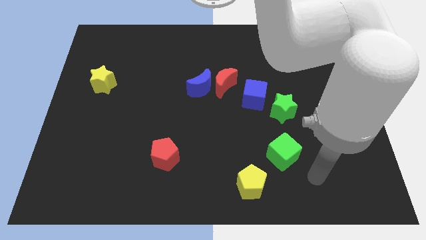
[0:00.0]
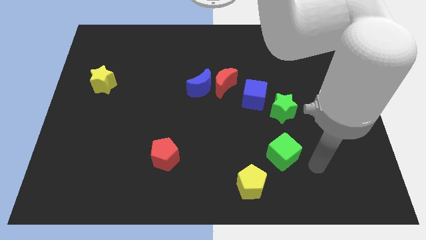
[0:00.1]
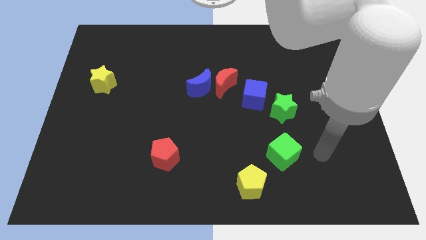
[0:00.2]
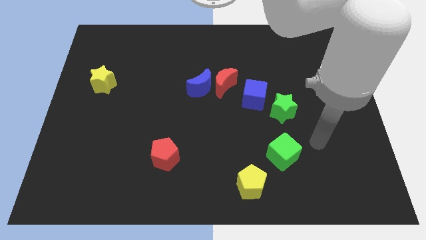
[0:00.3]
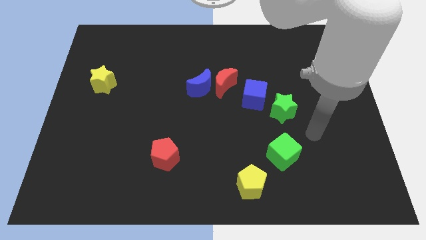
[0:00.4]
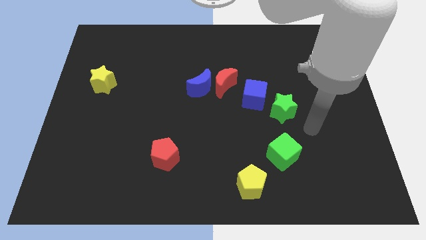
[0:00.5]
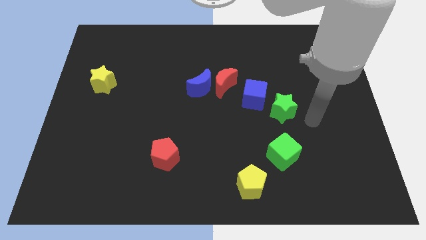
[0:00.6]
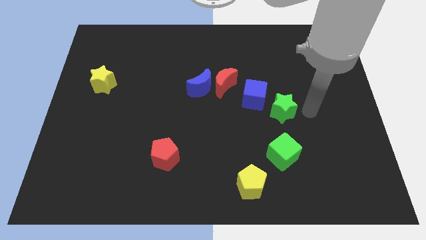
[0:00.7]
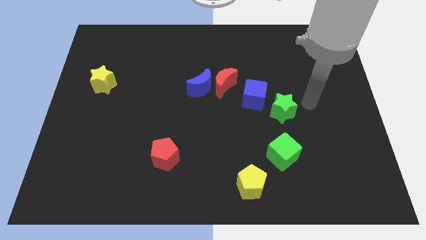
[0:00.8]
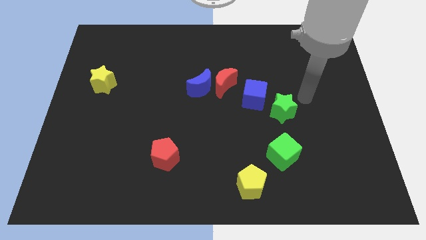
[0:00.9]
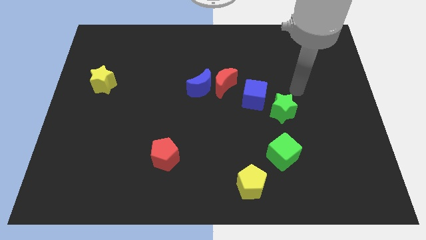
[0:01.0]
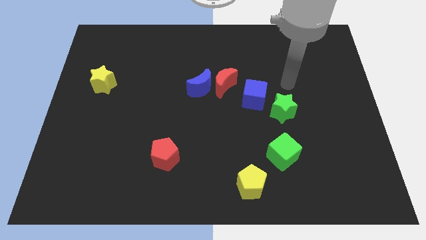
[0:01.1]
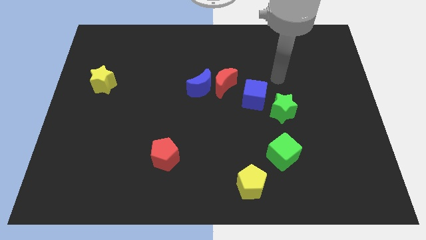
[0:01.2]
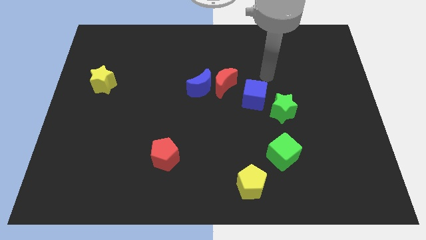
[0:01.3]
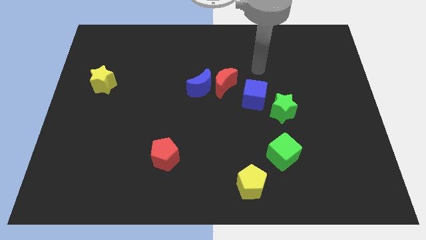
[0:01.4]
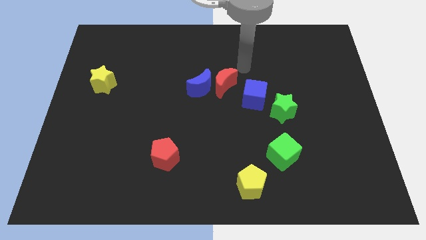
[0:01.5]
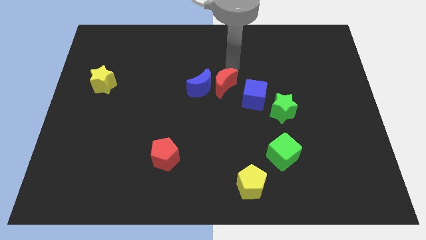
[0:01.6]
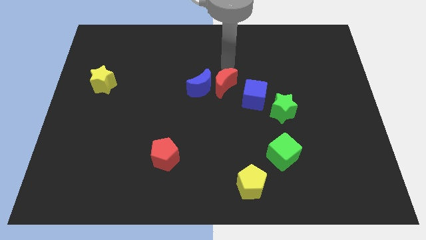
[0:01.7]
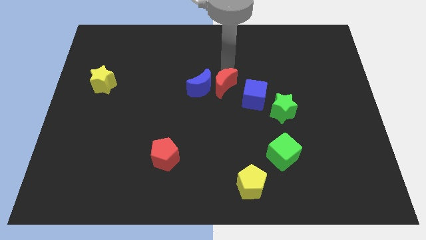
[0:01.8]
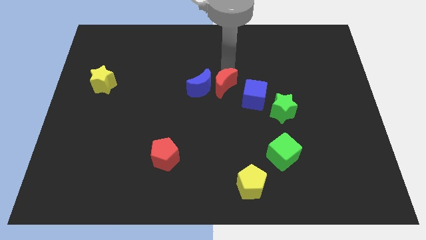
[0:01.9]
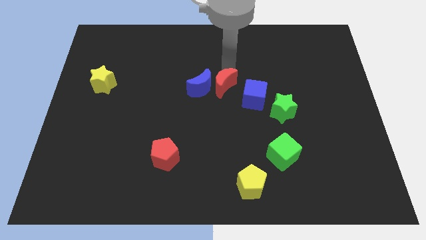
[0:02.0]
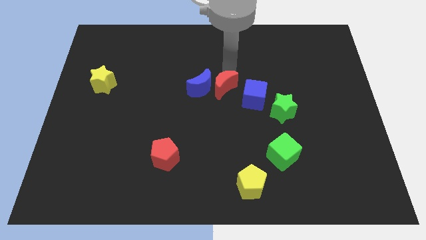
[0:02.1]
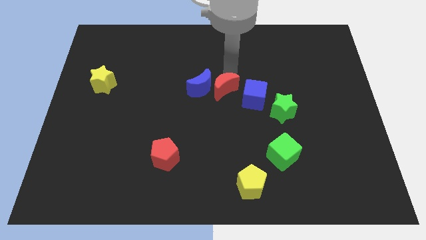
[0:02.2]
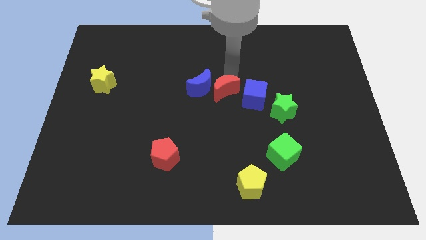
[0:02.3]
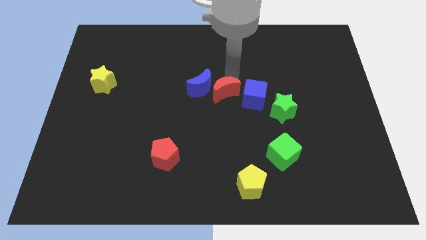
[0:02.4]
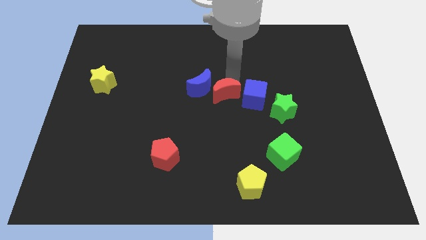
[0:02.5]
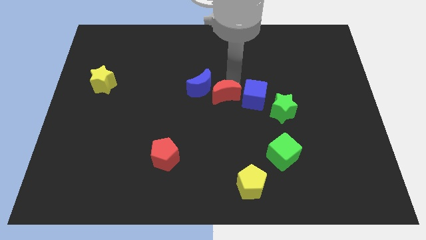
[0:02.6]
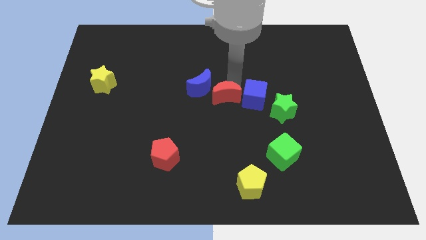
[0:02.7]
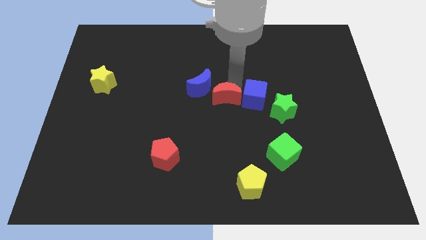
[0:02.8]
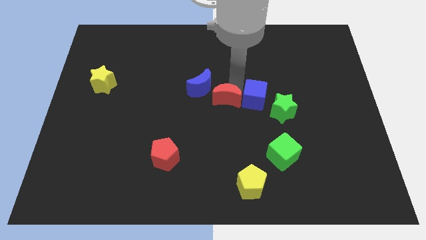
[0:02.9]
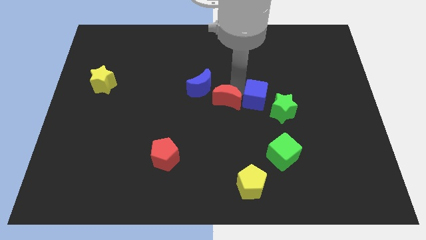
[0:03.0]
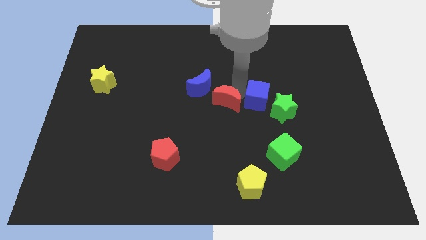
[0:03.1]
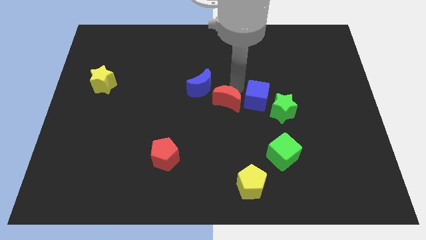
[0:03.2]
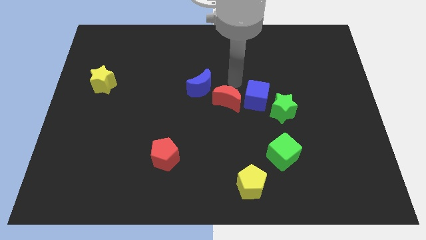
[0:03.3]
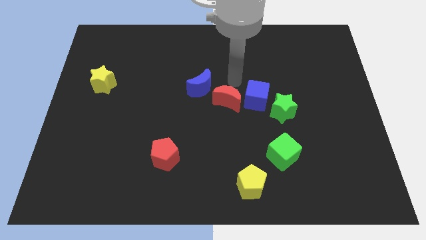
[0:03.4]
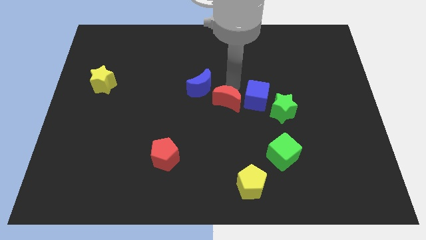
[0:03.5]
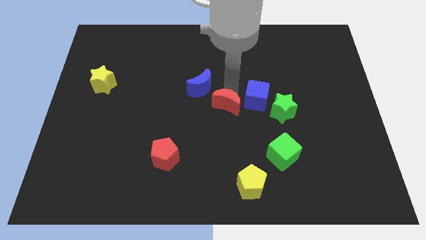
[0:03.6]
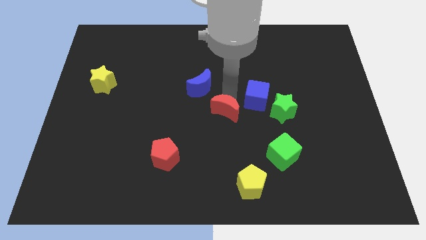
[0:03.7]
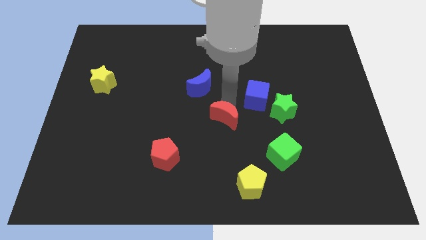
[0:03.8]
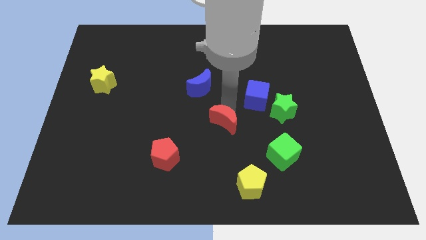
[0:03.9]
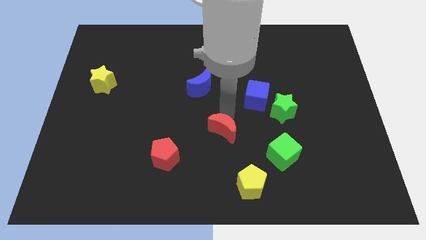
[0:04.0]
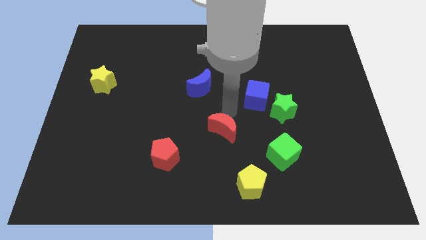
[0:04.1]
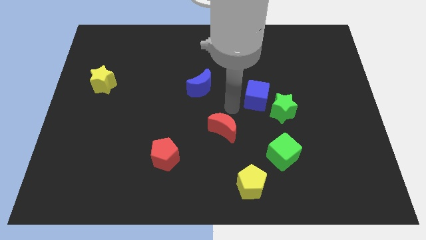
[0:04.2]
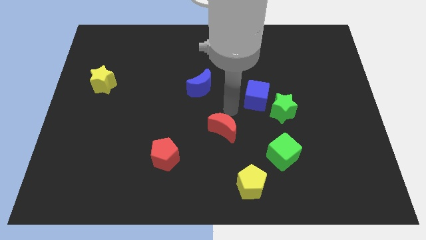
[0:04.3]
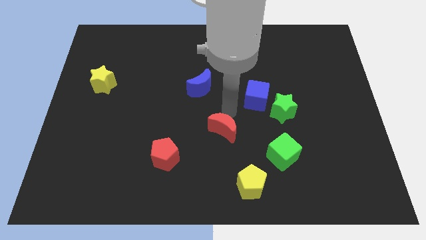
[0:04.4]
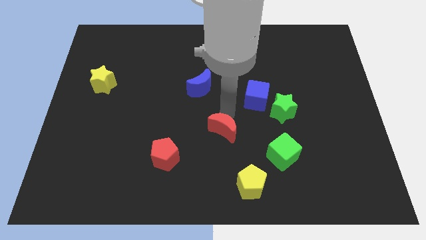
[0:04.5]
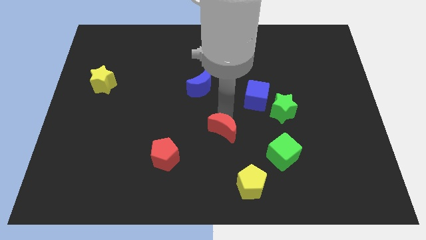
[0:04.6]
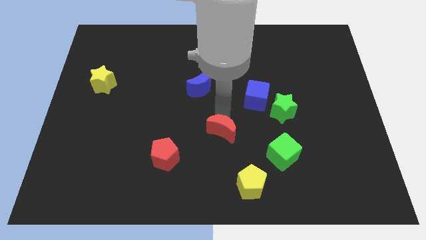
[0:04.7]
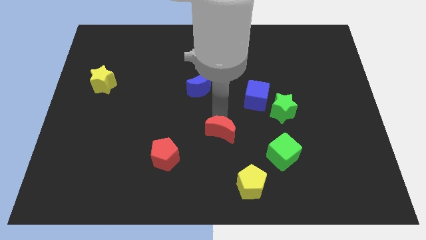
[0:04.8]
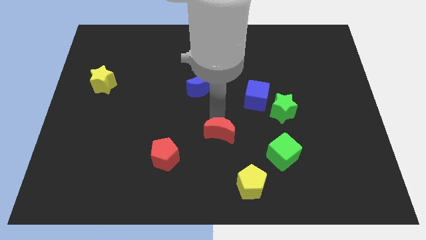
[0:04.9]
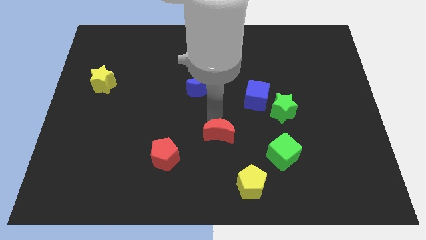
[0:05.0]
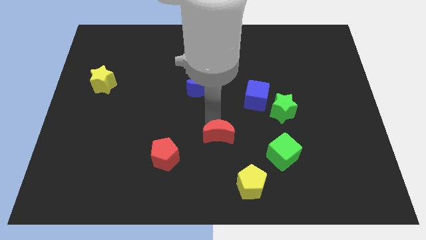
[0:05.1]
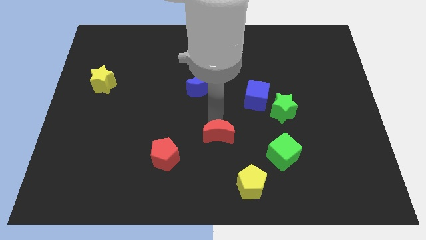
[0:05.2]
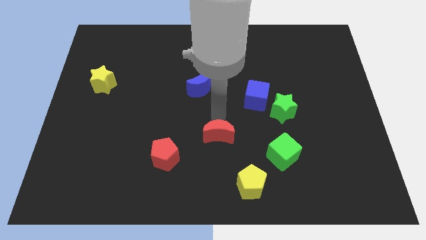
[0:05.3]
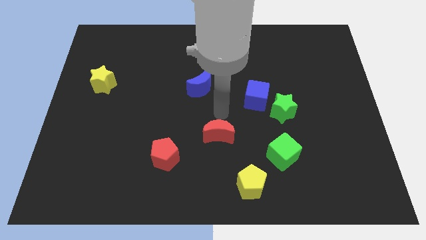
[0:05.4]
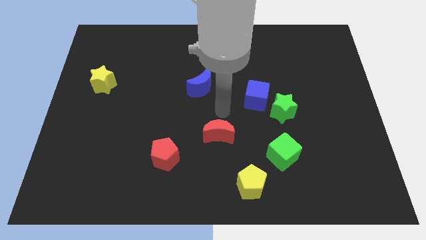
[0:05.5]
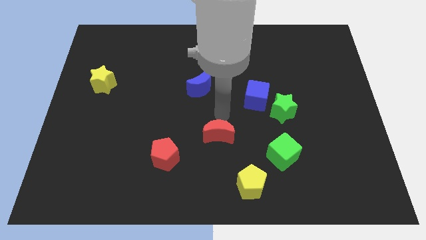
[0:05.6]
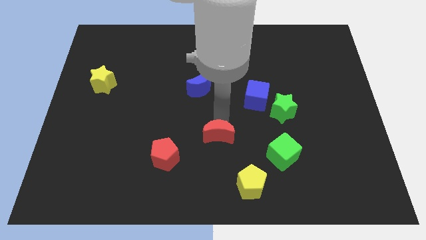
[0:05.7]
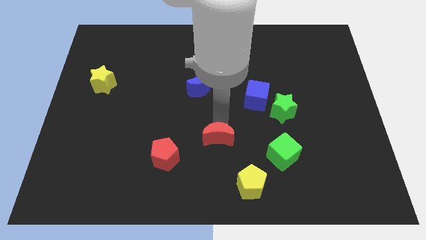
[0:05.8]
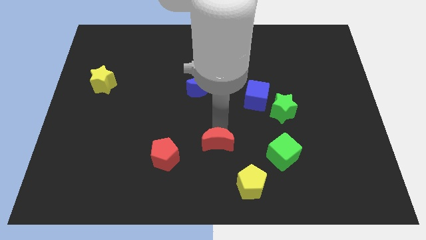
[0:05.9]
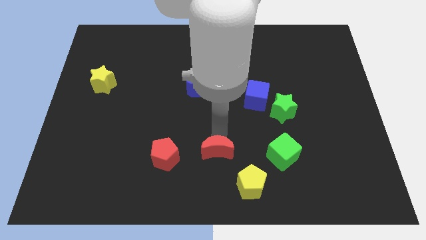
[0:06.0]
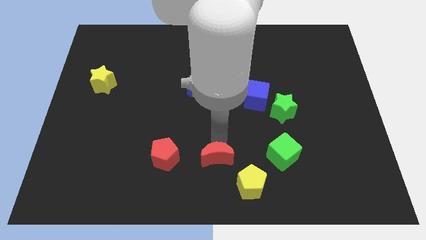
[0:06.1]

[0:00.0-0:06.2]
slide the red moon to the bottom side

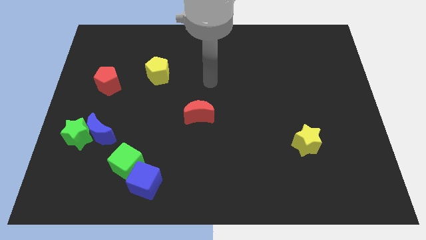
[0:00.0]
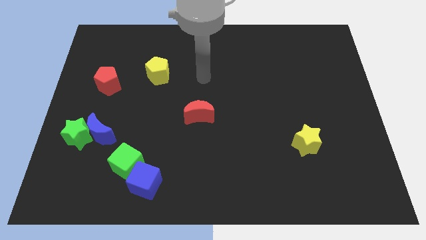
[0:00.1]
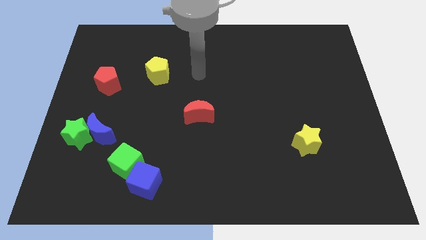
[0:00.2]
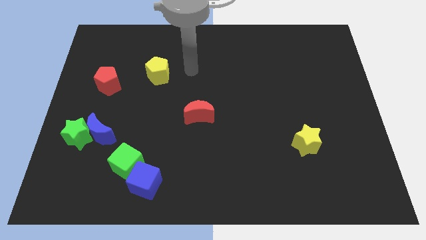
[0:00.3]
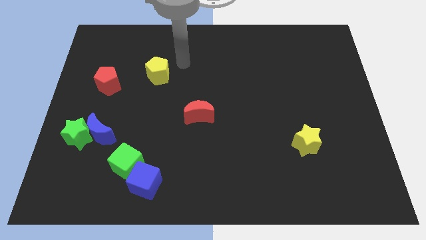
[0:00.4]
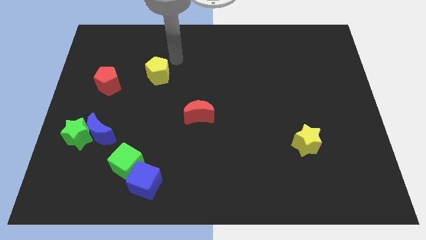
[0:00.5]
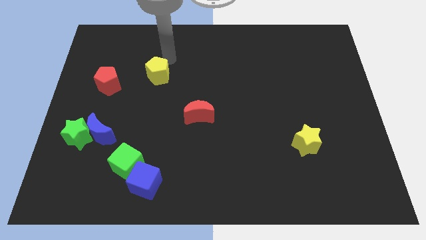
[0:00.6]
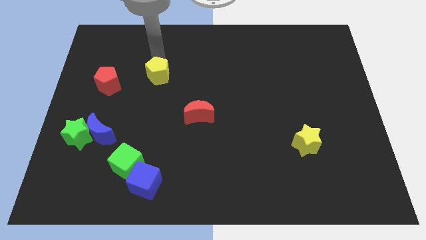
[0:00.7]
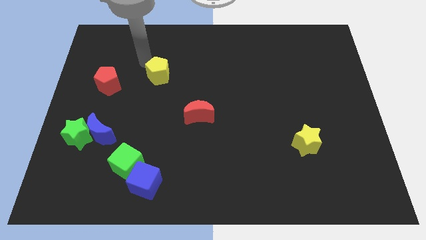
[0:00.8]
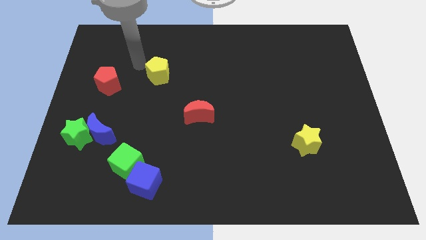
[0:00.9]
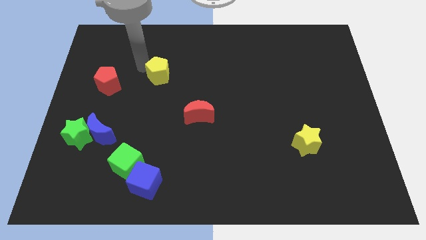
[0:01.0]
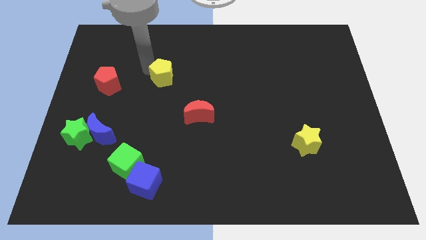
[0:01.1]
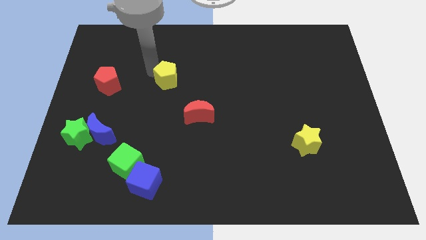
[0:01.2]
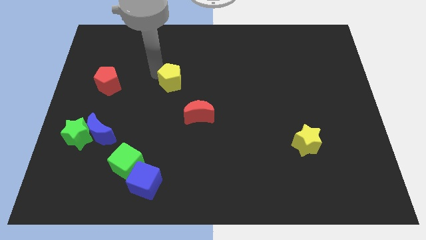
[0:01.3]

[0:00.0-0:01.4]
move the yellow pentagon to the middle
